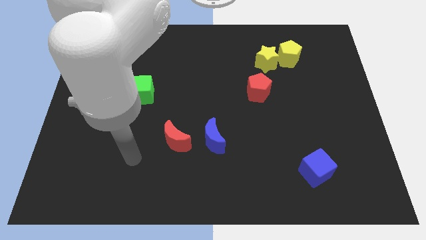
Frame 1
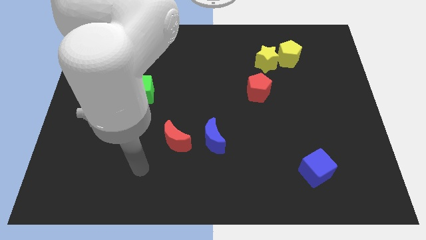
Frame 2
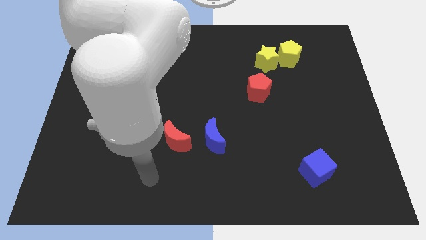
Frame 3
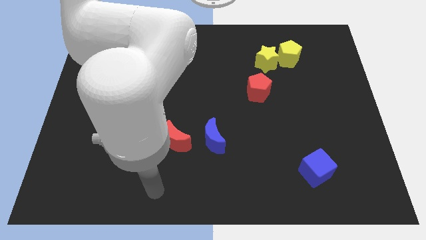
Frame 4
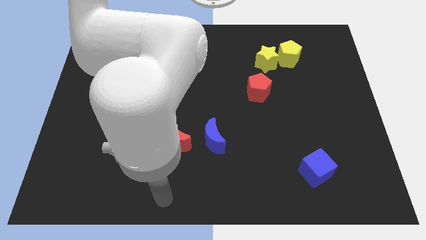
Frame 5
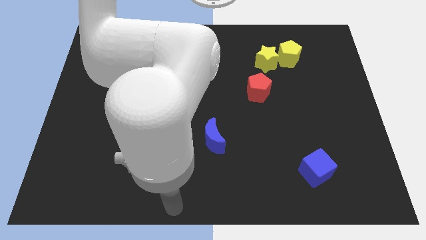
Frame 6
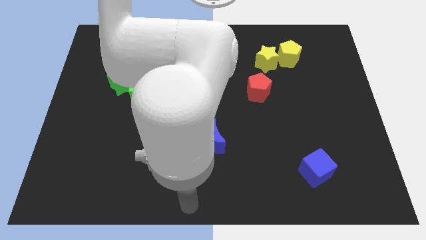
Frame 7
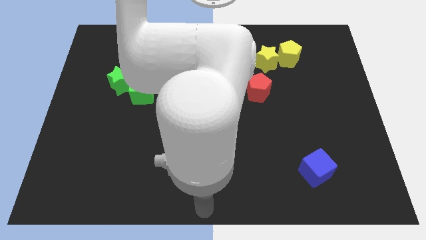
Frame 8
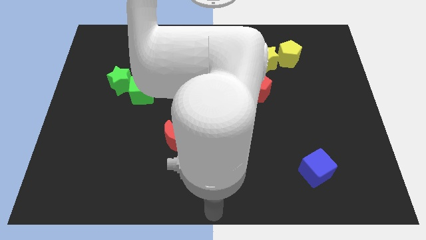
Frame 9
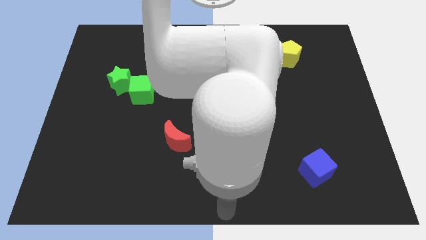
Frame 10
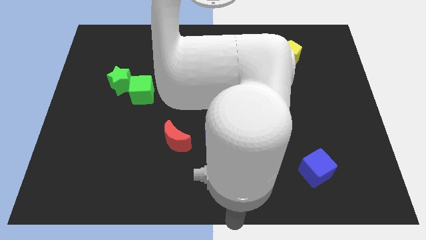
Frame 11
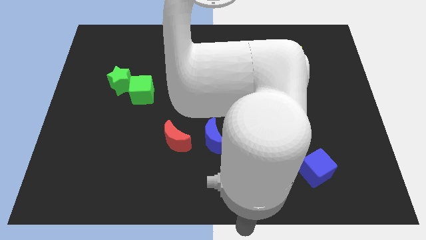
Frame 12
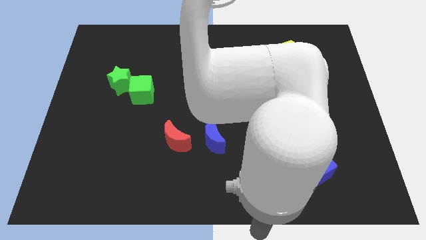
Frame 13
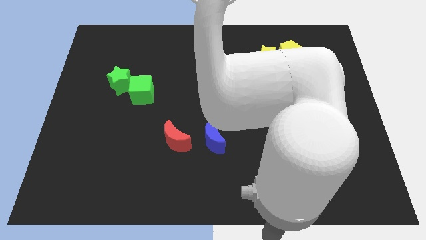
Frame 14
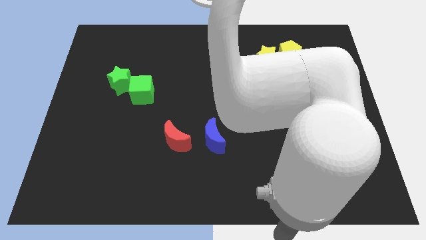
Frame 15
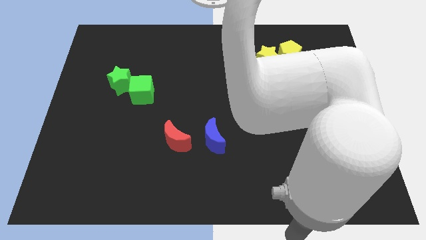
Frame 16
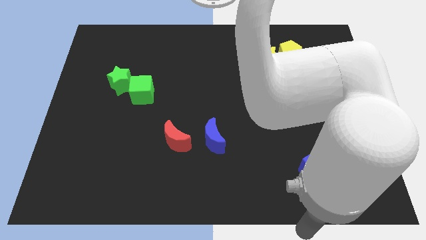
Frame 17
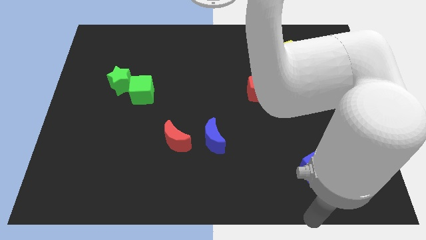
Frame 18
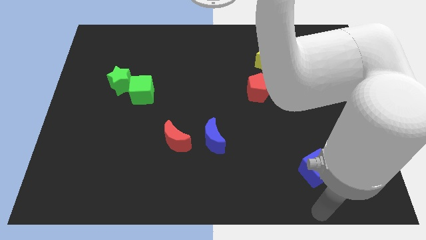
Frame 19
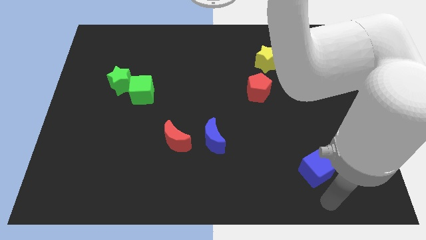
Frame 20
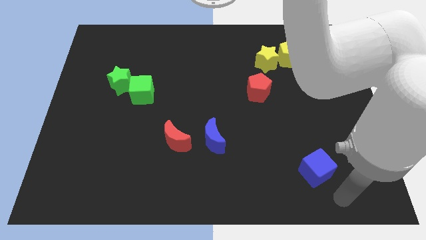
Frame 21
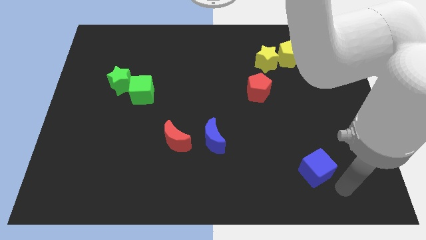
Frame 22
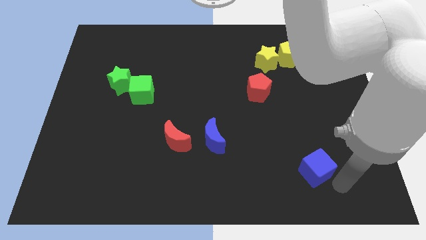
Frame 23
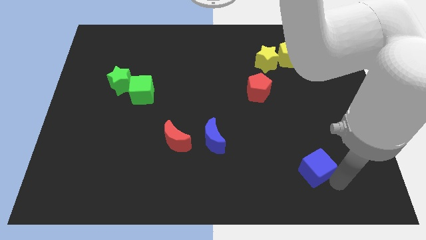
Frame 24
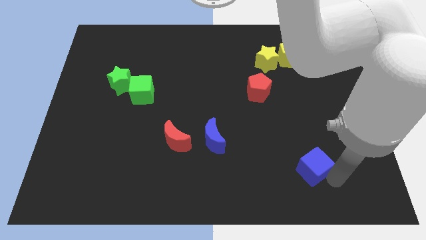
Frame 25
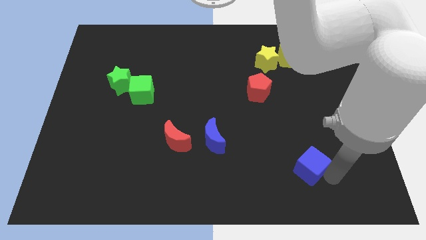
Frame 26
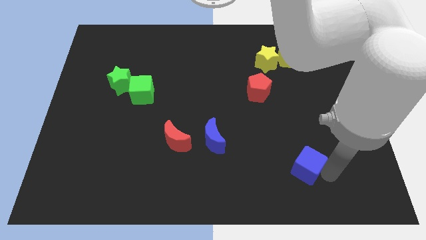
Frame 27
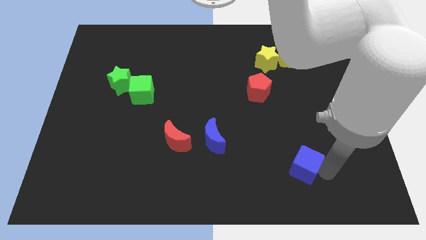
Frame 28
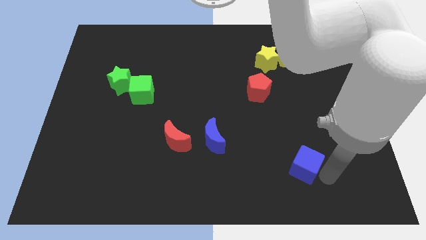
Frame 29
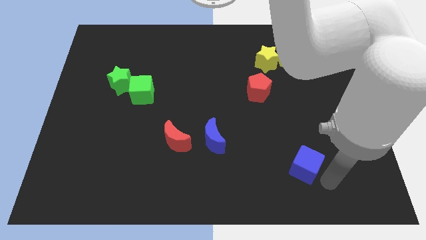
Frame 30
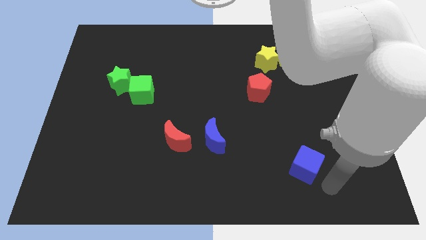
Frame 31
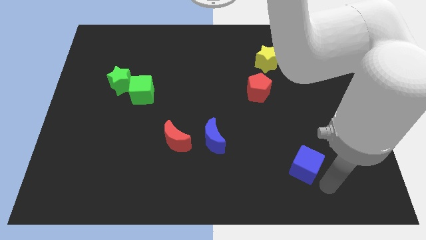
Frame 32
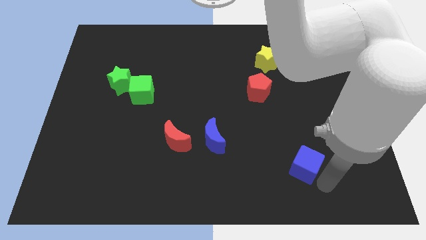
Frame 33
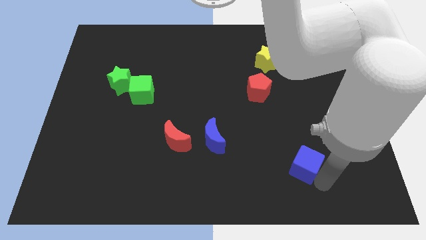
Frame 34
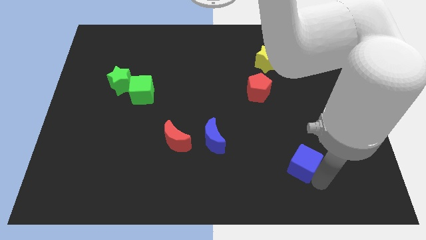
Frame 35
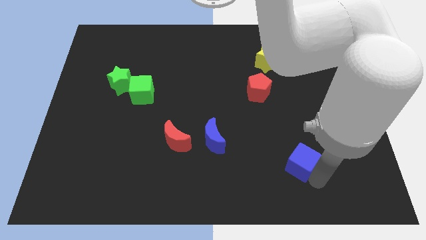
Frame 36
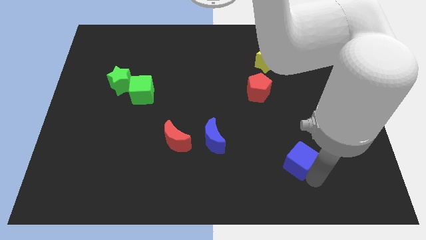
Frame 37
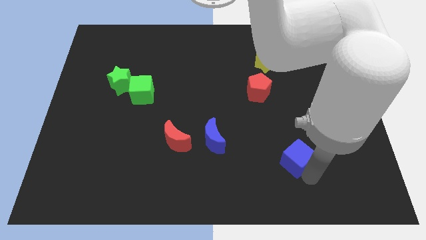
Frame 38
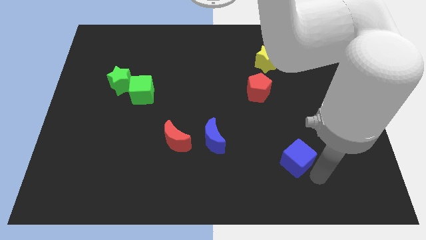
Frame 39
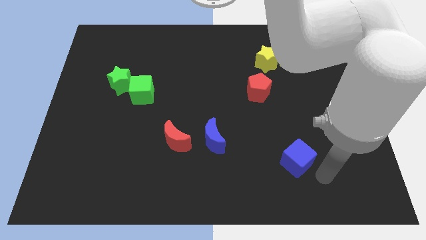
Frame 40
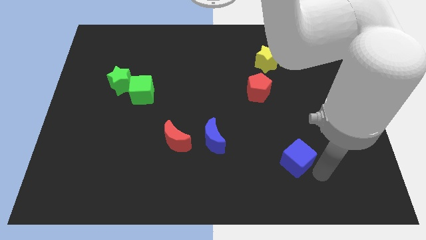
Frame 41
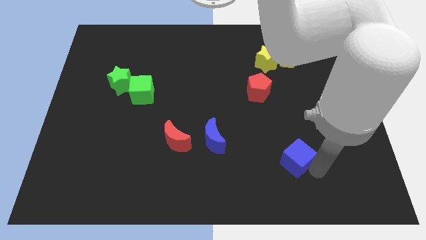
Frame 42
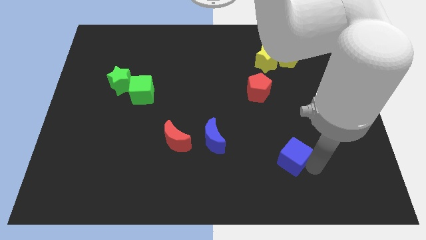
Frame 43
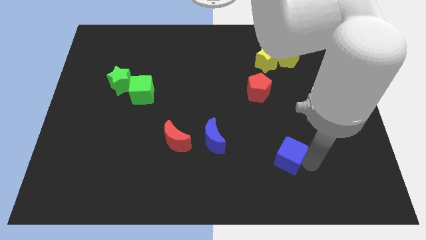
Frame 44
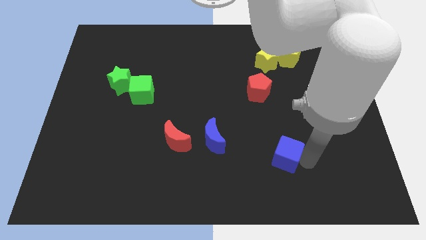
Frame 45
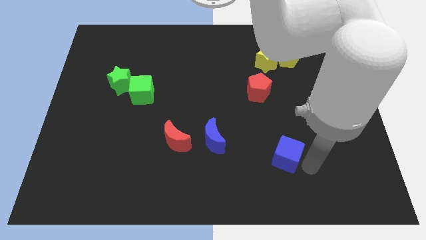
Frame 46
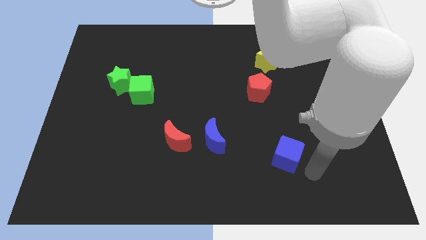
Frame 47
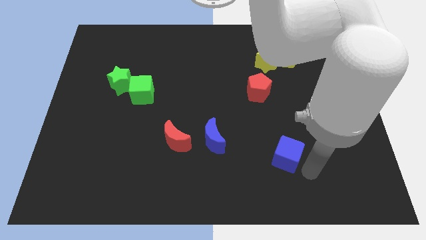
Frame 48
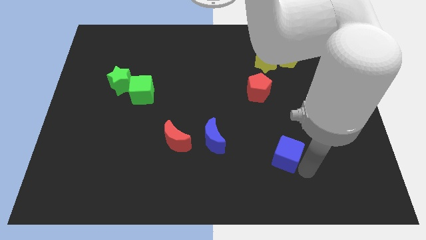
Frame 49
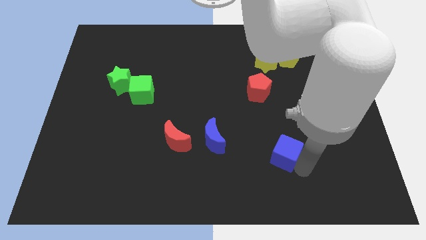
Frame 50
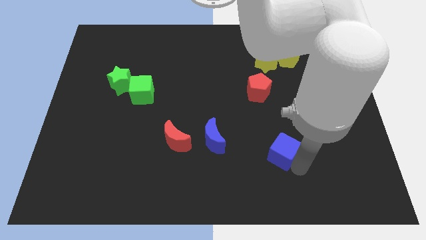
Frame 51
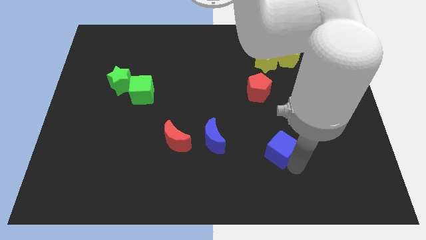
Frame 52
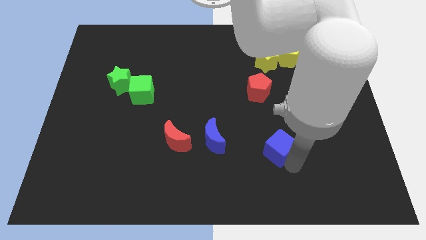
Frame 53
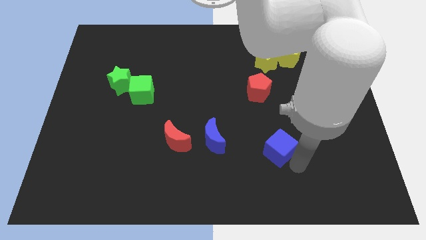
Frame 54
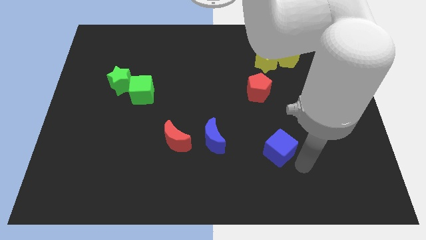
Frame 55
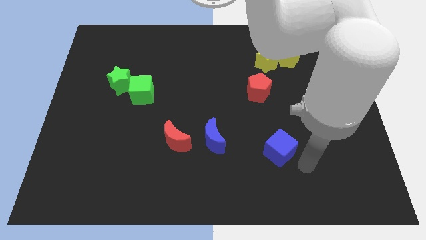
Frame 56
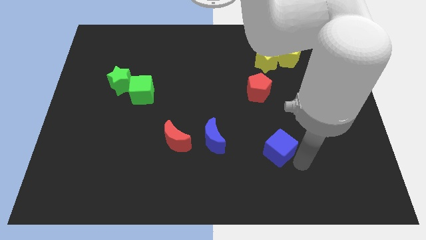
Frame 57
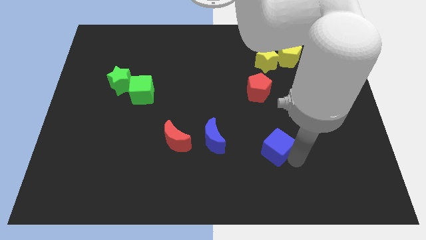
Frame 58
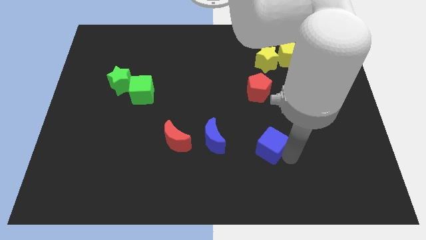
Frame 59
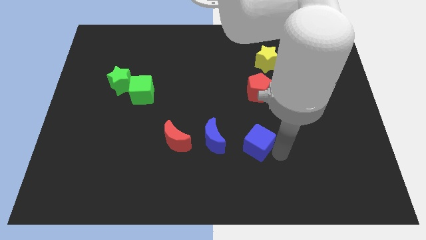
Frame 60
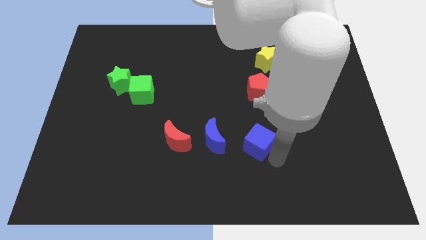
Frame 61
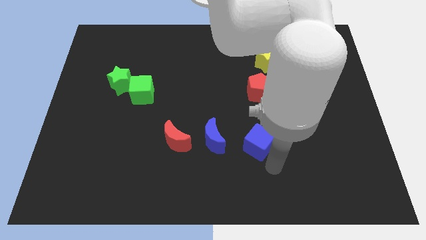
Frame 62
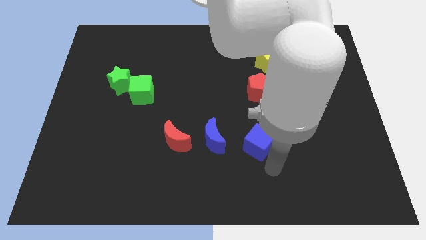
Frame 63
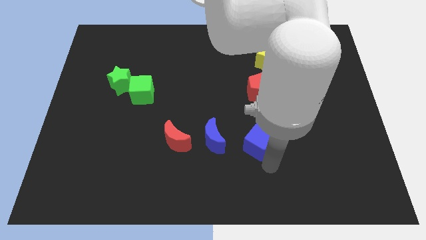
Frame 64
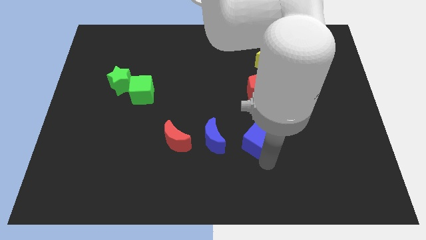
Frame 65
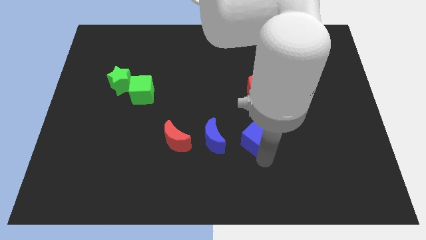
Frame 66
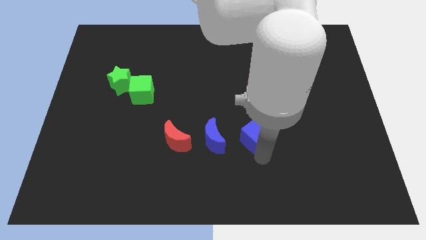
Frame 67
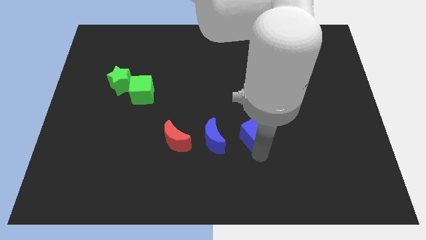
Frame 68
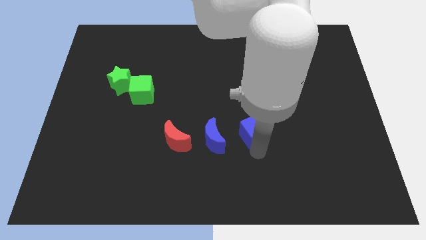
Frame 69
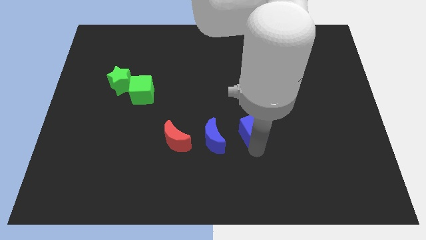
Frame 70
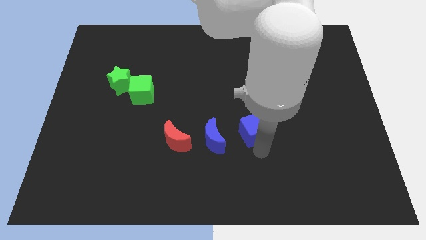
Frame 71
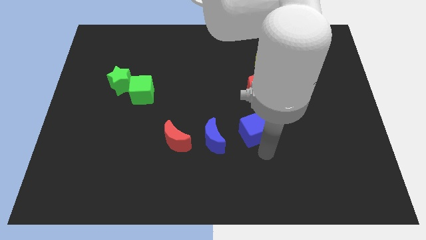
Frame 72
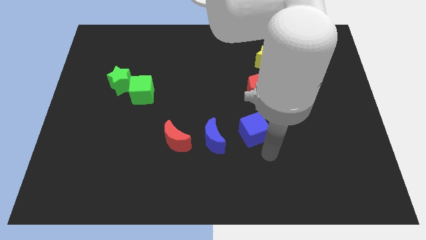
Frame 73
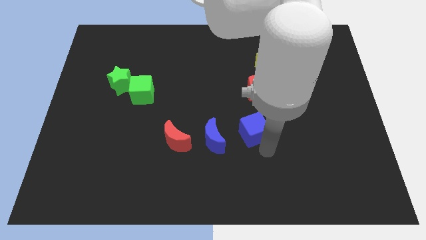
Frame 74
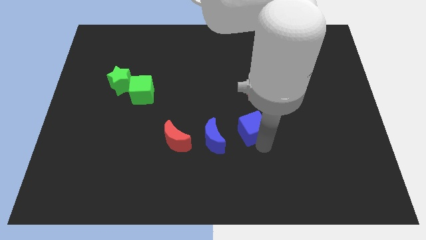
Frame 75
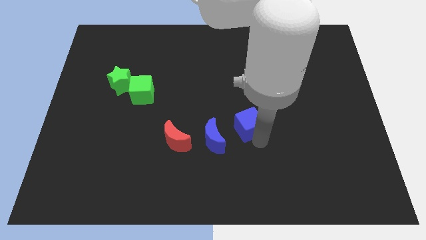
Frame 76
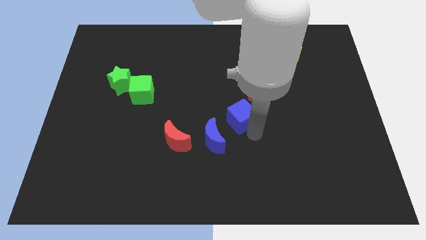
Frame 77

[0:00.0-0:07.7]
move the blue cube up and then left
